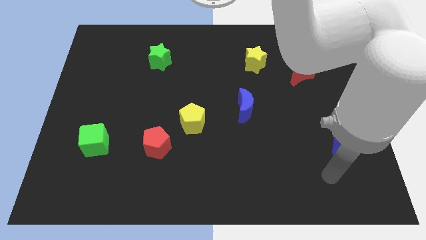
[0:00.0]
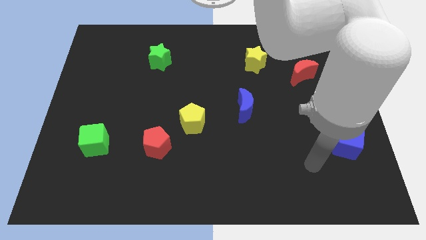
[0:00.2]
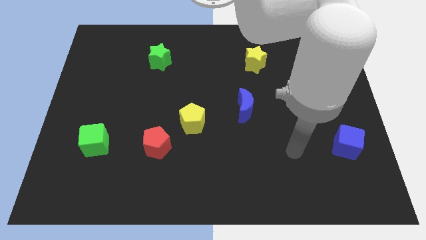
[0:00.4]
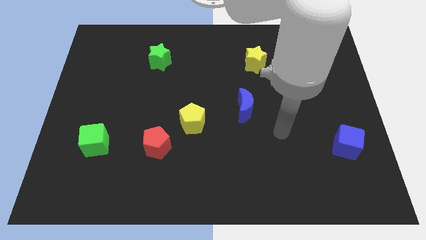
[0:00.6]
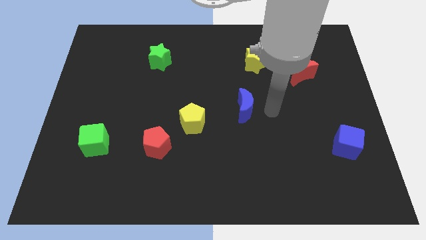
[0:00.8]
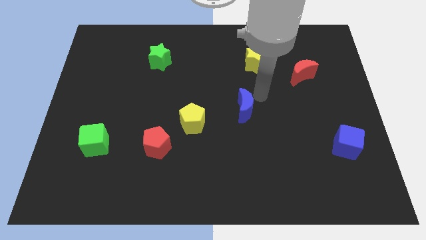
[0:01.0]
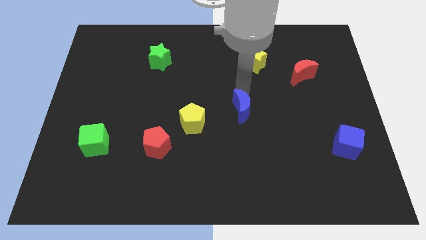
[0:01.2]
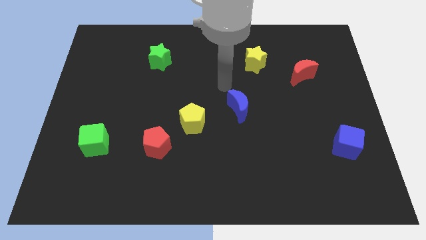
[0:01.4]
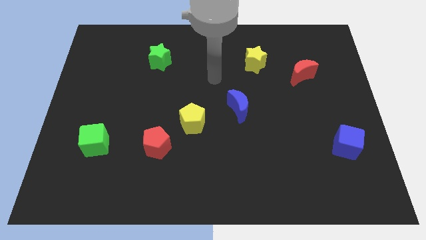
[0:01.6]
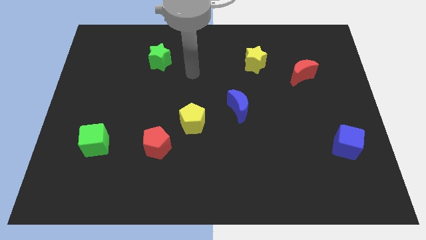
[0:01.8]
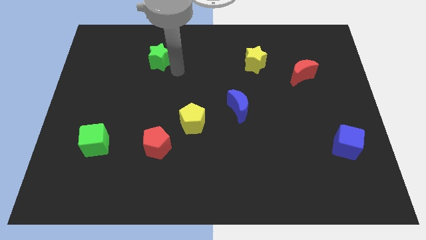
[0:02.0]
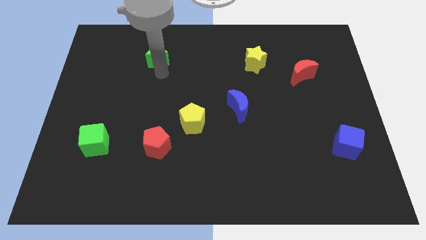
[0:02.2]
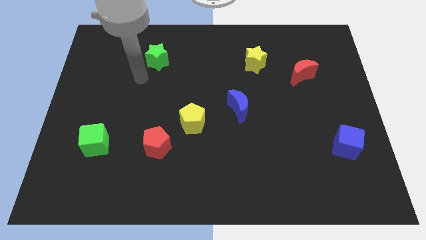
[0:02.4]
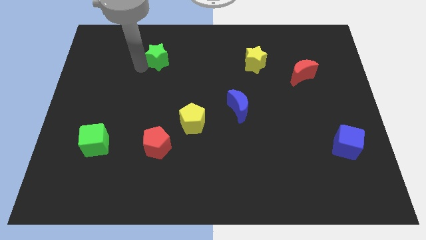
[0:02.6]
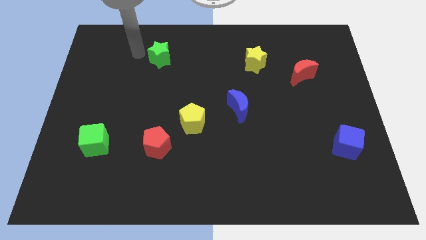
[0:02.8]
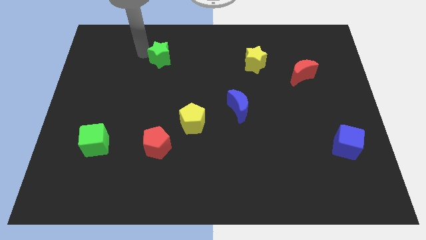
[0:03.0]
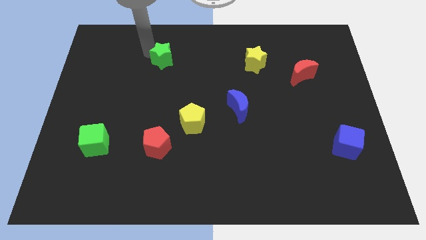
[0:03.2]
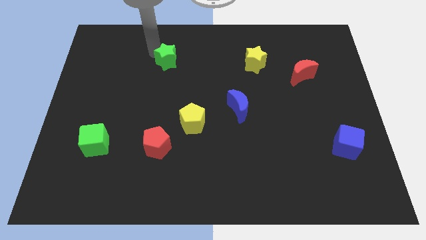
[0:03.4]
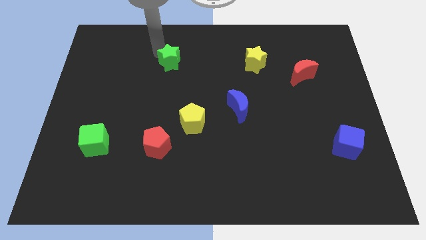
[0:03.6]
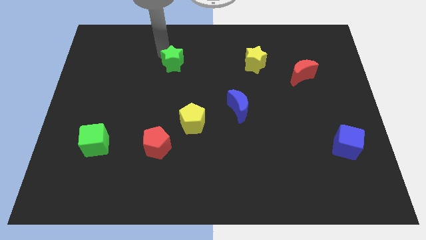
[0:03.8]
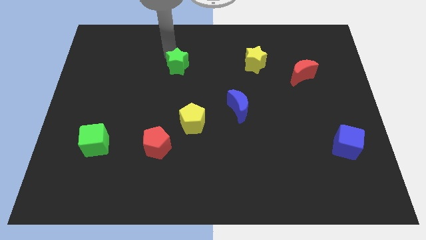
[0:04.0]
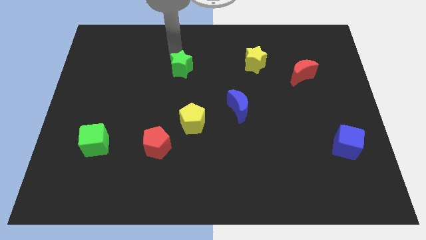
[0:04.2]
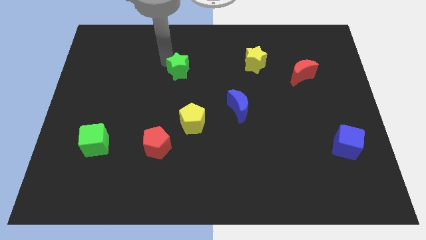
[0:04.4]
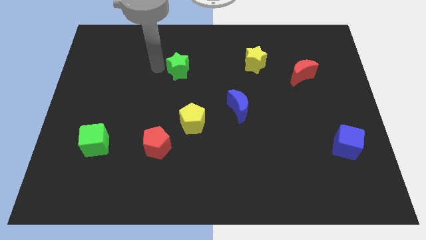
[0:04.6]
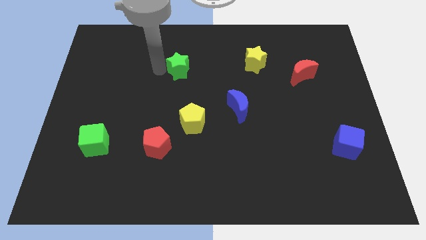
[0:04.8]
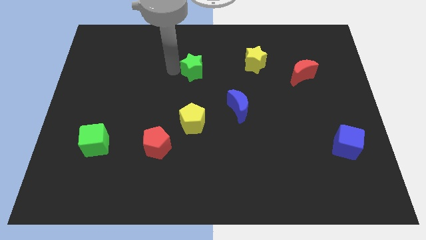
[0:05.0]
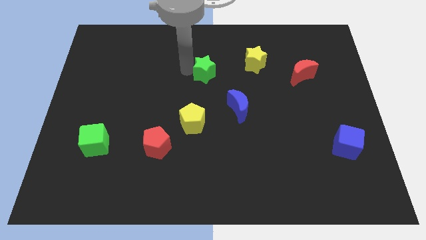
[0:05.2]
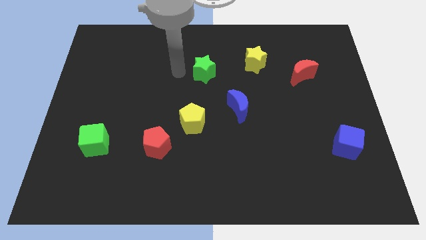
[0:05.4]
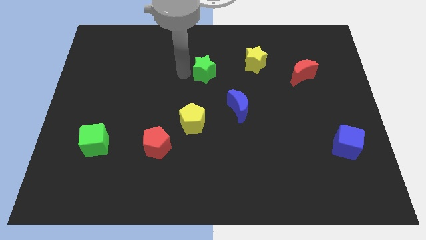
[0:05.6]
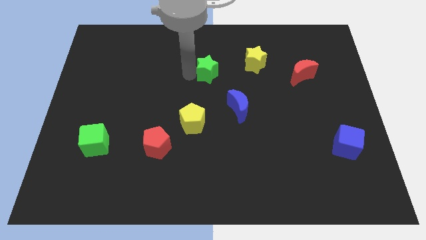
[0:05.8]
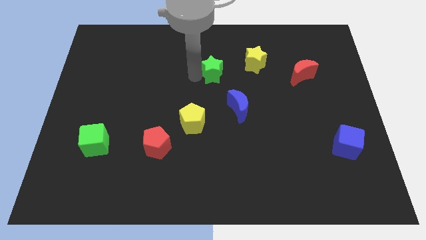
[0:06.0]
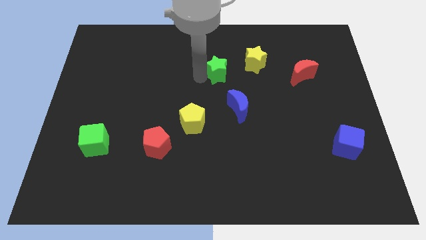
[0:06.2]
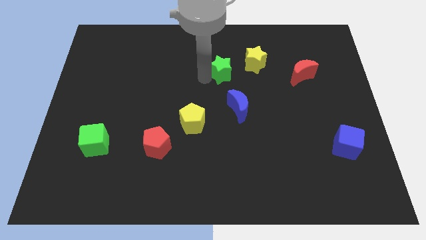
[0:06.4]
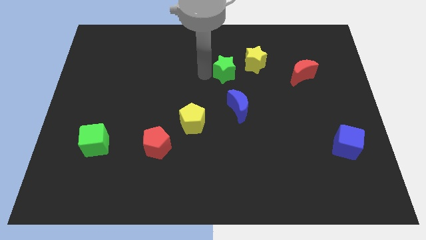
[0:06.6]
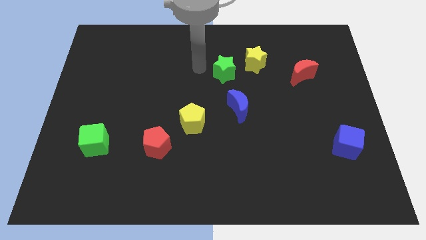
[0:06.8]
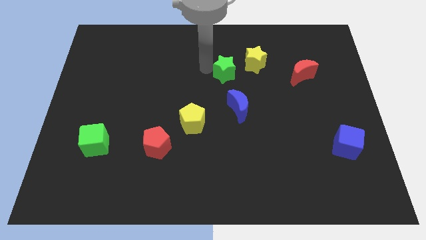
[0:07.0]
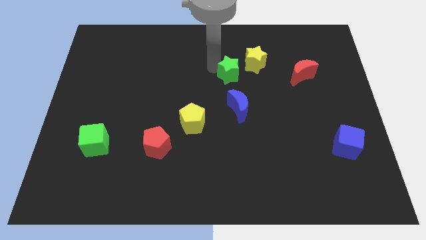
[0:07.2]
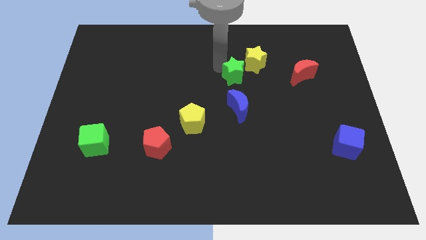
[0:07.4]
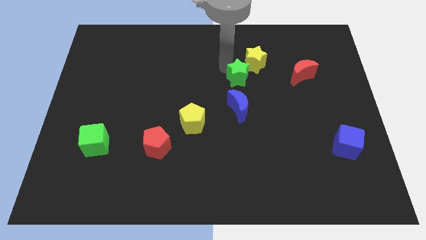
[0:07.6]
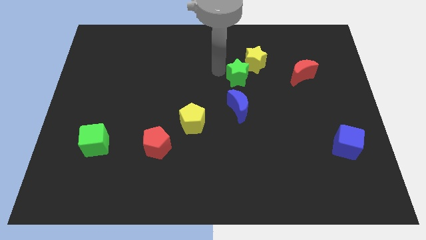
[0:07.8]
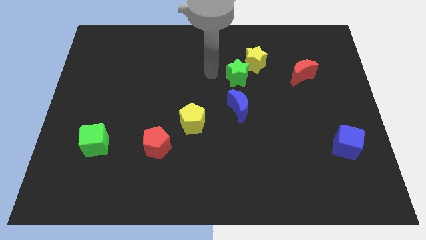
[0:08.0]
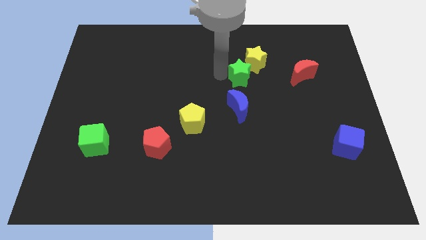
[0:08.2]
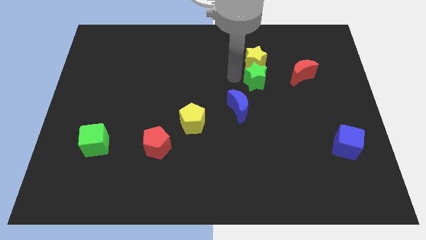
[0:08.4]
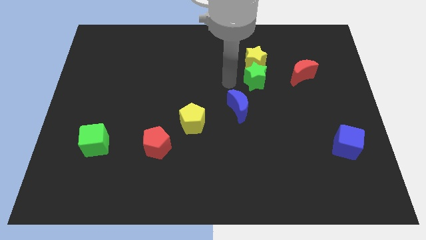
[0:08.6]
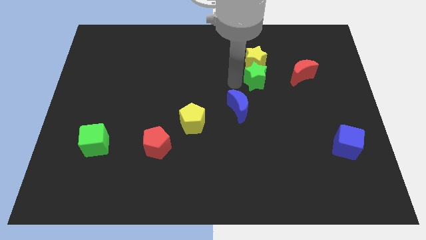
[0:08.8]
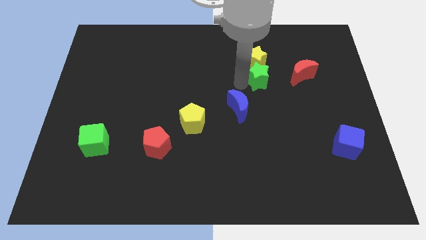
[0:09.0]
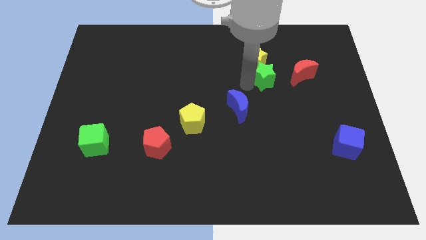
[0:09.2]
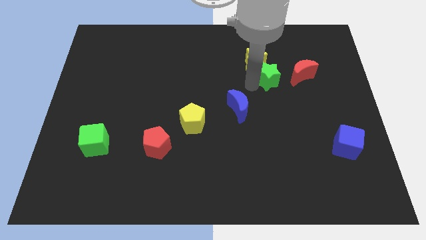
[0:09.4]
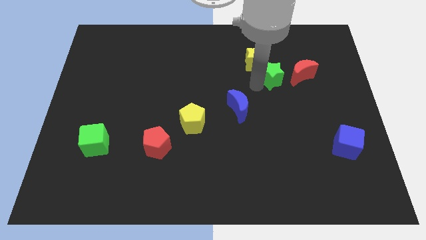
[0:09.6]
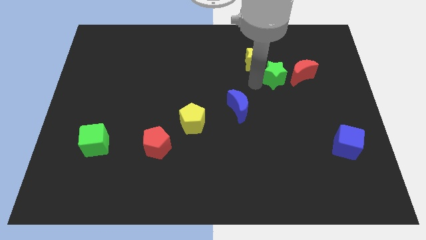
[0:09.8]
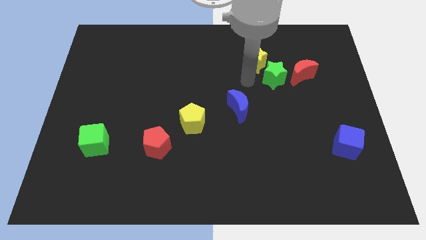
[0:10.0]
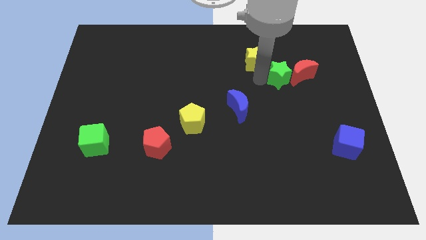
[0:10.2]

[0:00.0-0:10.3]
put the green star towards the red moon

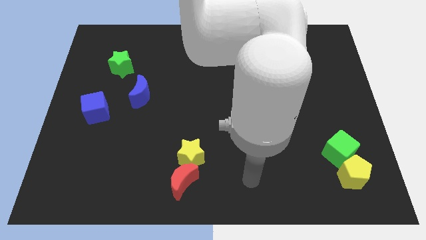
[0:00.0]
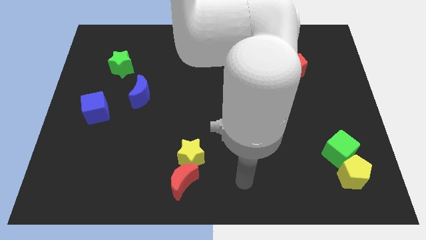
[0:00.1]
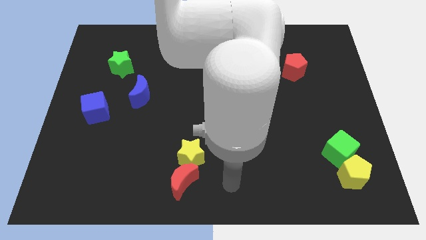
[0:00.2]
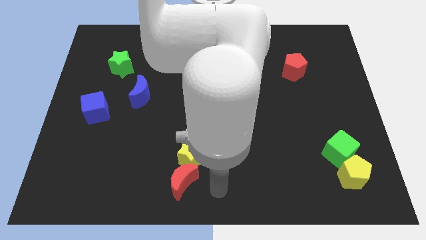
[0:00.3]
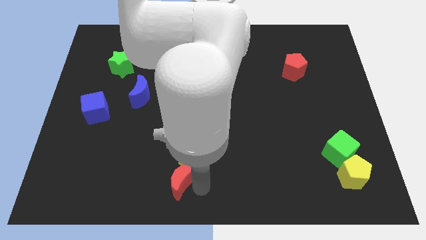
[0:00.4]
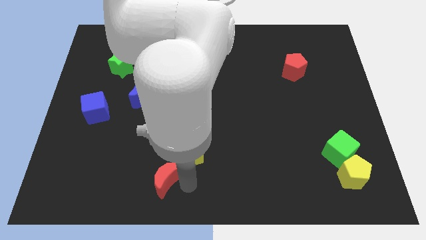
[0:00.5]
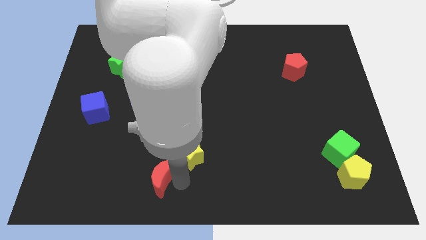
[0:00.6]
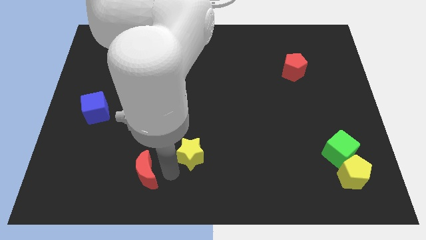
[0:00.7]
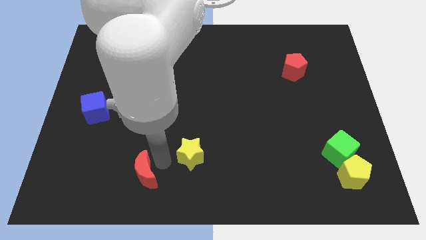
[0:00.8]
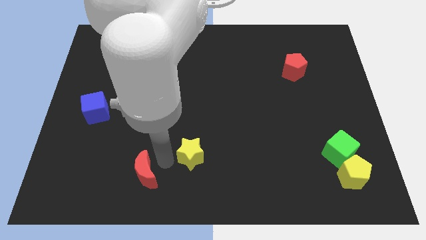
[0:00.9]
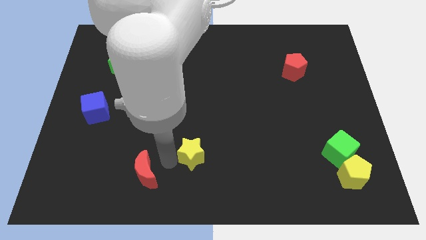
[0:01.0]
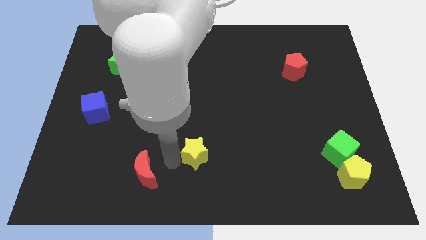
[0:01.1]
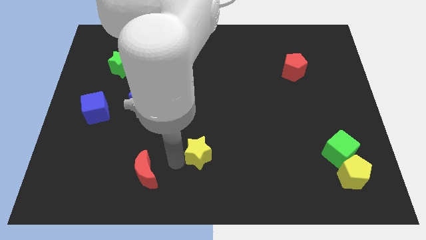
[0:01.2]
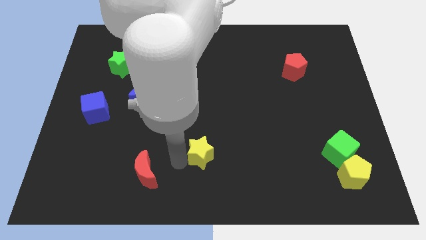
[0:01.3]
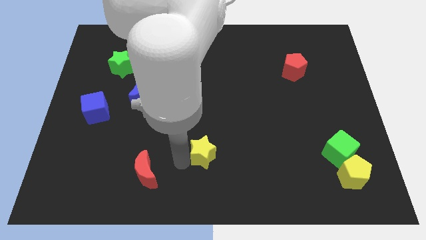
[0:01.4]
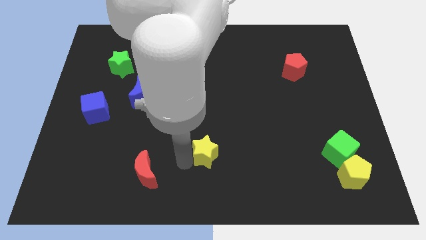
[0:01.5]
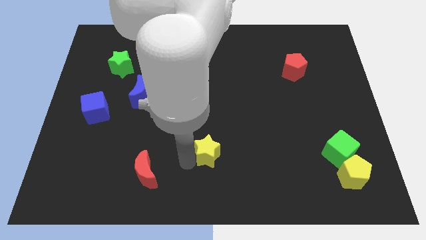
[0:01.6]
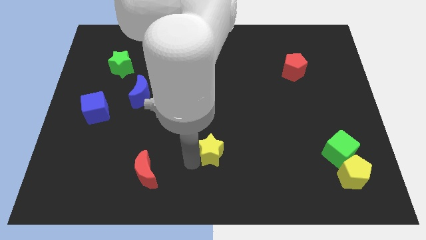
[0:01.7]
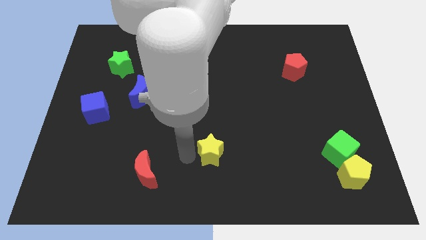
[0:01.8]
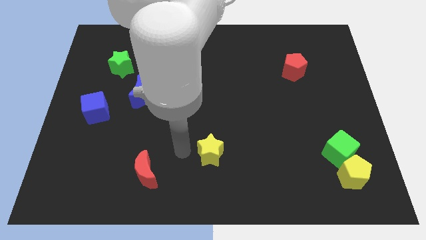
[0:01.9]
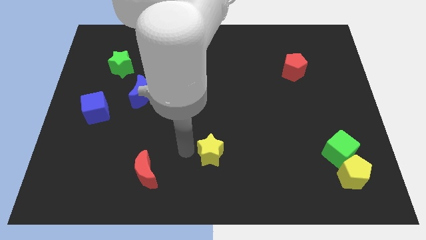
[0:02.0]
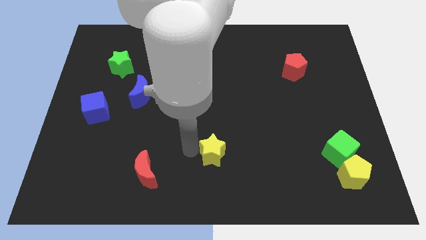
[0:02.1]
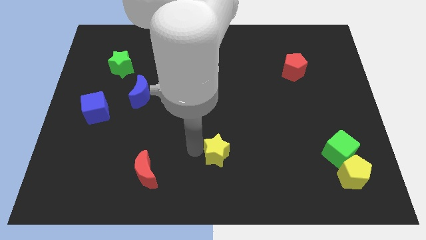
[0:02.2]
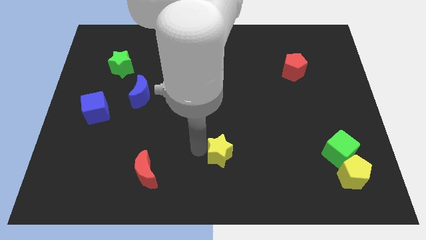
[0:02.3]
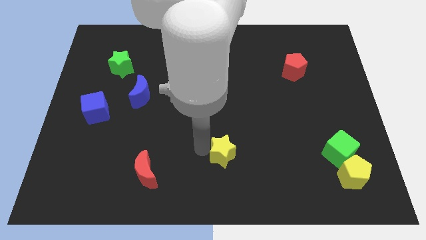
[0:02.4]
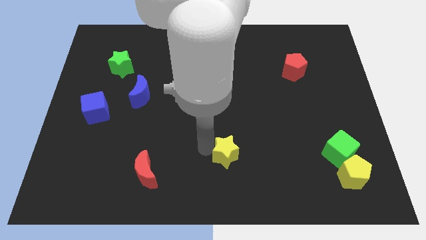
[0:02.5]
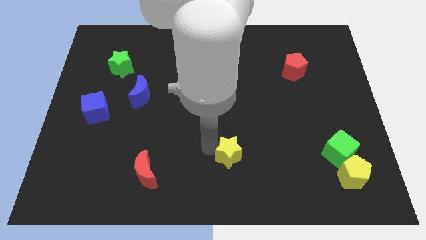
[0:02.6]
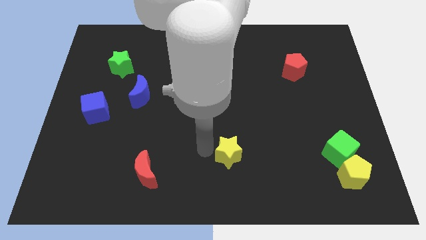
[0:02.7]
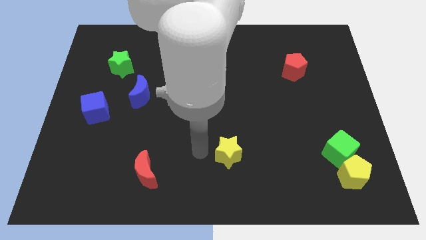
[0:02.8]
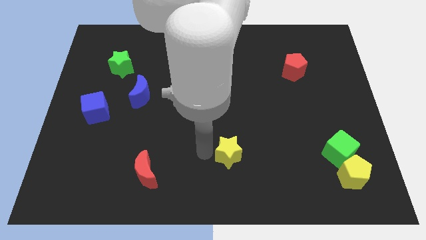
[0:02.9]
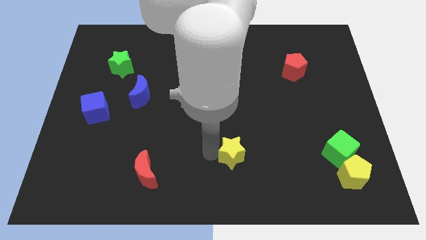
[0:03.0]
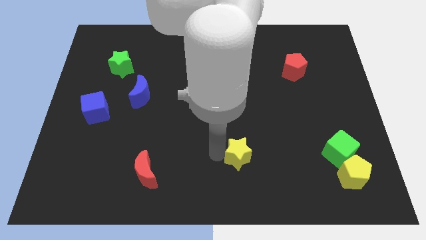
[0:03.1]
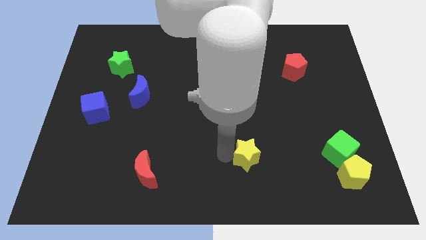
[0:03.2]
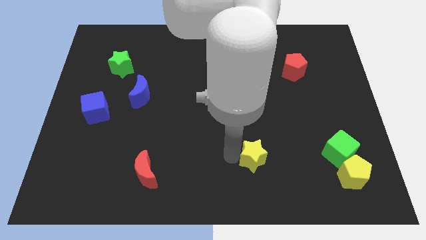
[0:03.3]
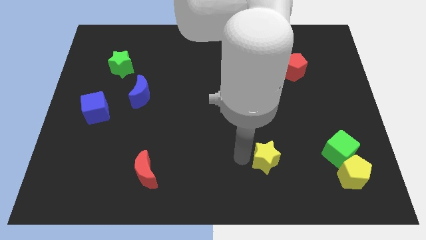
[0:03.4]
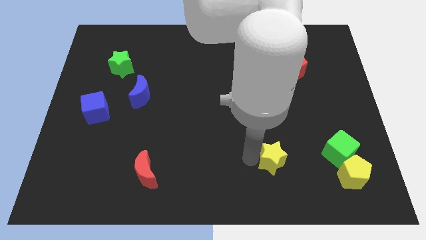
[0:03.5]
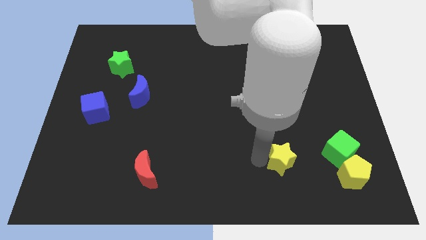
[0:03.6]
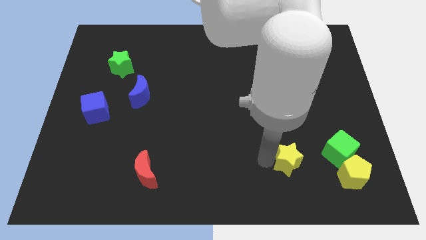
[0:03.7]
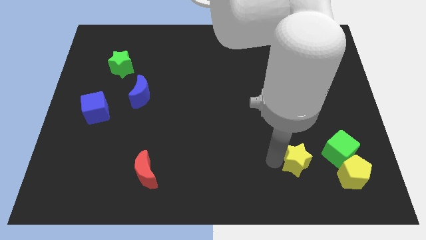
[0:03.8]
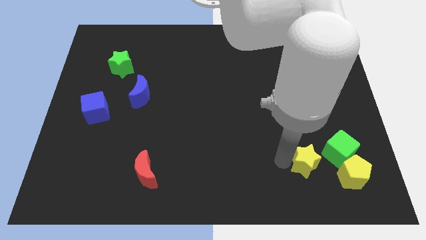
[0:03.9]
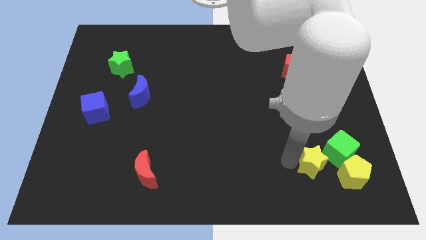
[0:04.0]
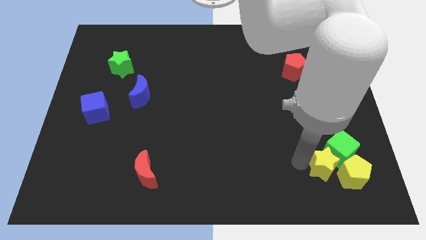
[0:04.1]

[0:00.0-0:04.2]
move the yellow star towards the yellow pentagon
